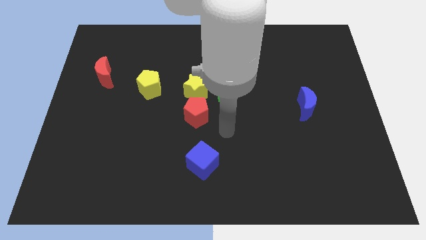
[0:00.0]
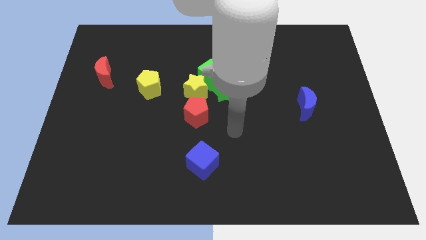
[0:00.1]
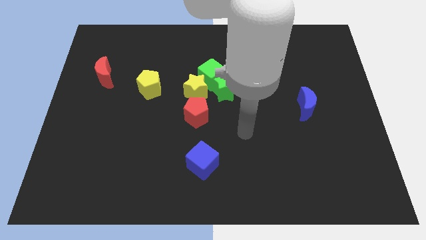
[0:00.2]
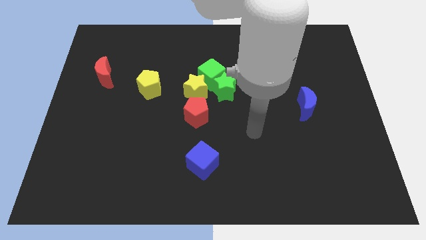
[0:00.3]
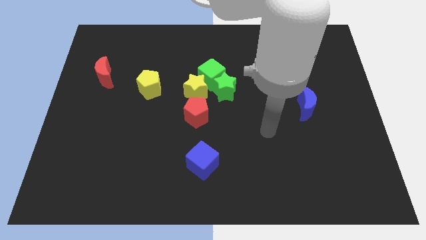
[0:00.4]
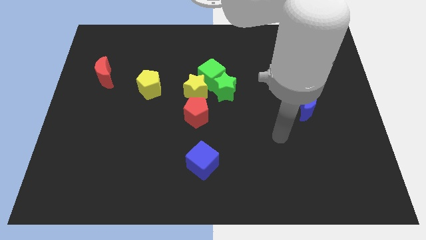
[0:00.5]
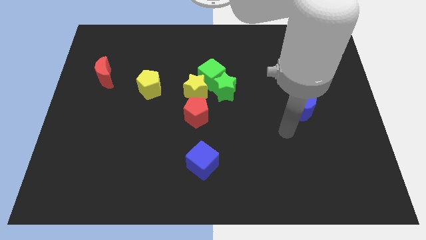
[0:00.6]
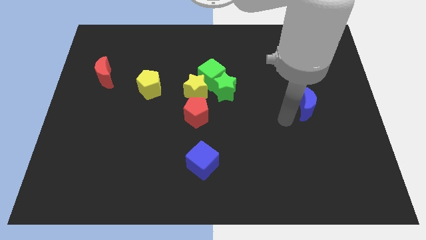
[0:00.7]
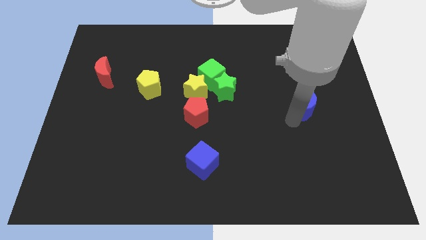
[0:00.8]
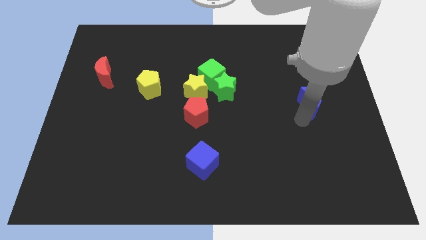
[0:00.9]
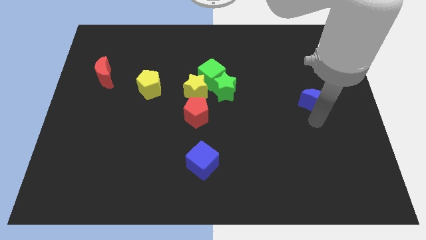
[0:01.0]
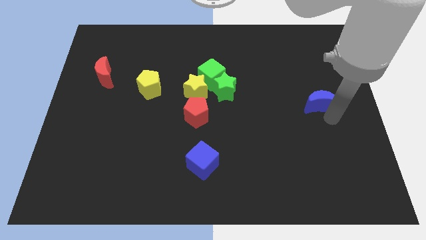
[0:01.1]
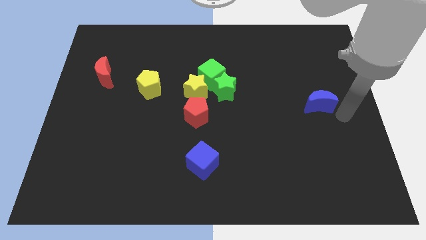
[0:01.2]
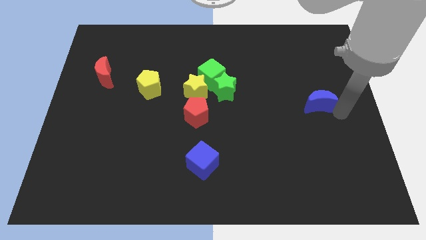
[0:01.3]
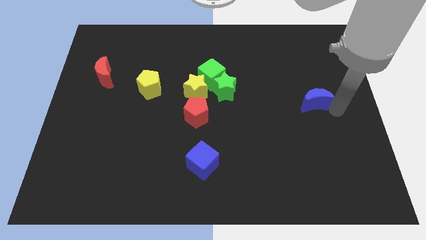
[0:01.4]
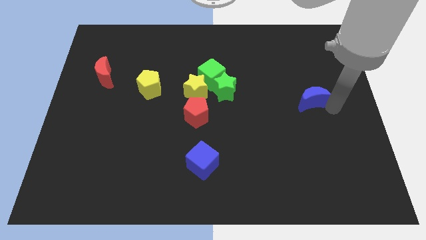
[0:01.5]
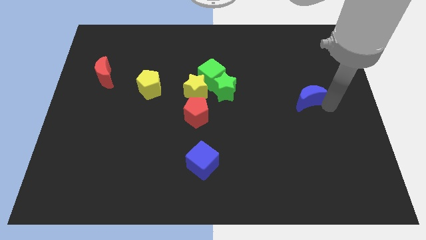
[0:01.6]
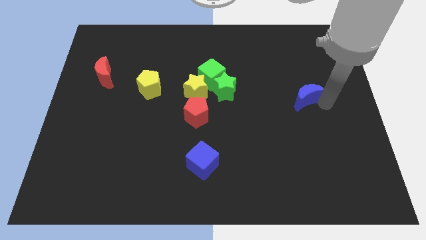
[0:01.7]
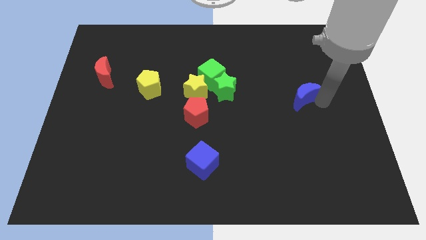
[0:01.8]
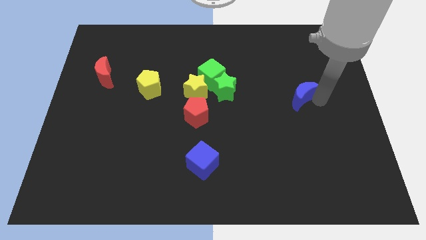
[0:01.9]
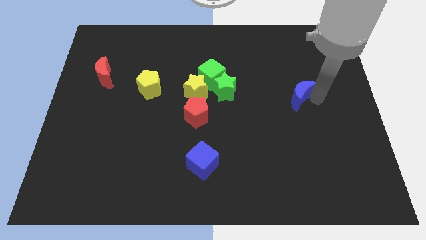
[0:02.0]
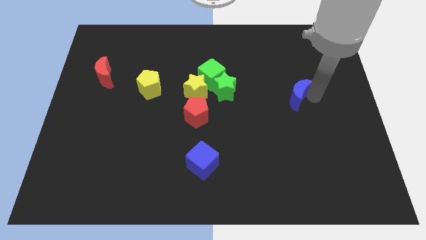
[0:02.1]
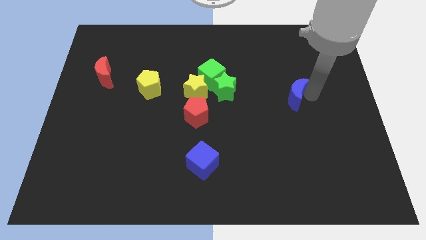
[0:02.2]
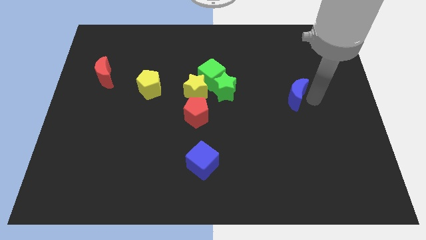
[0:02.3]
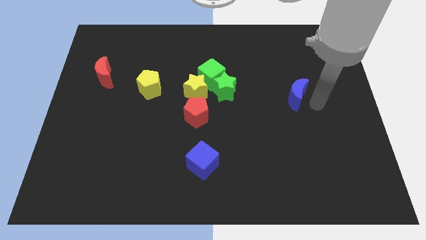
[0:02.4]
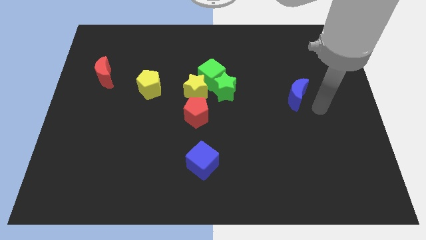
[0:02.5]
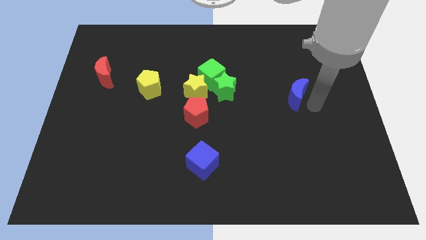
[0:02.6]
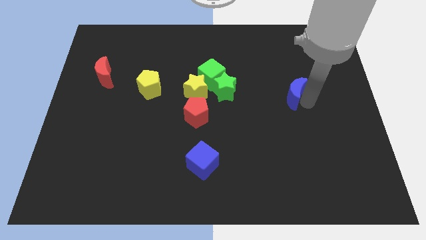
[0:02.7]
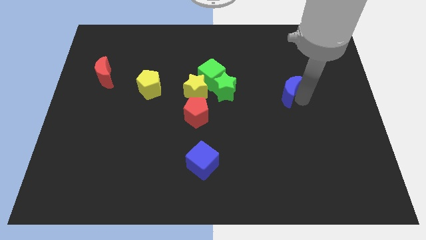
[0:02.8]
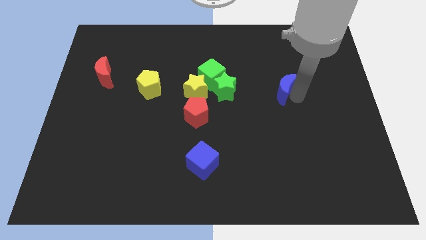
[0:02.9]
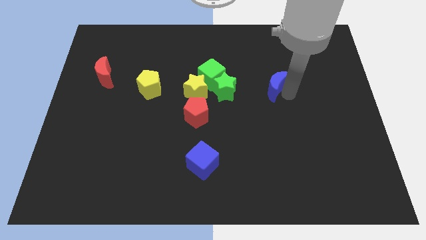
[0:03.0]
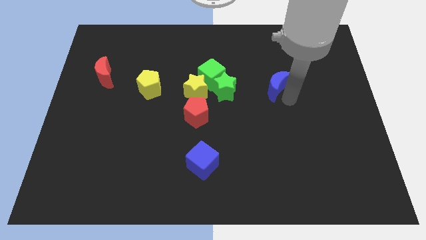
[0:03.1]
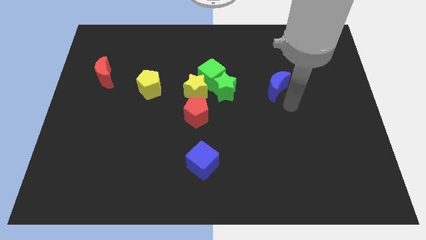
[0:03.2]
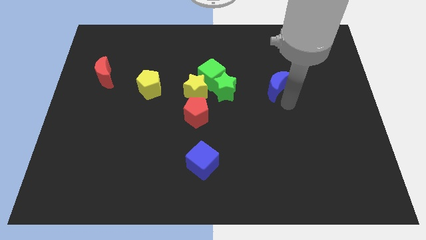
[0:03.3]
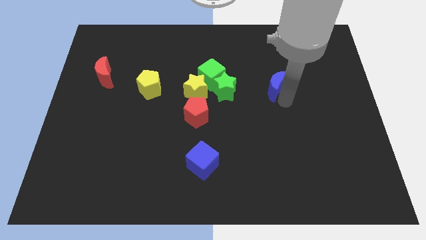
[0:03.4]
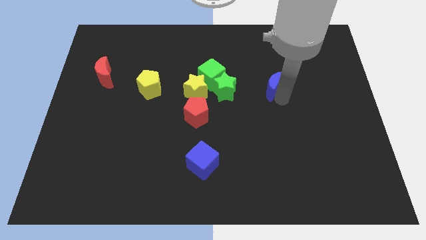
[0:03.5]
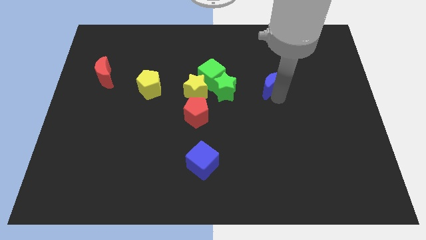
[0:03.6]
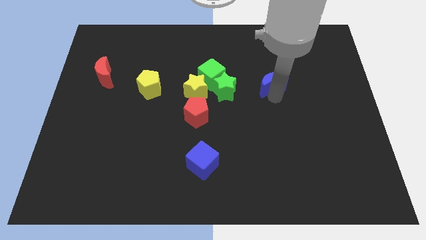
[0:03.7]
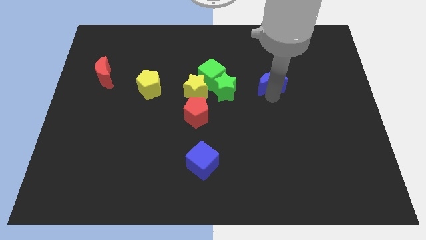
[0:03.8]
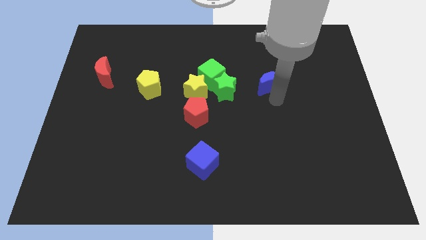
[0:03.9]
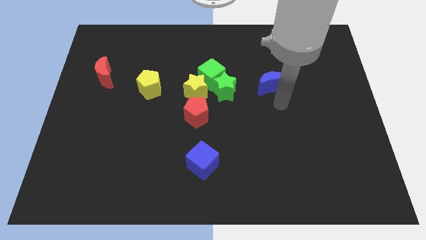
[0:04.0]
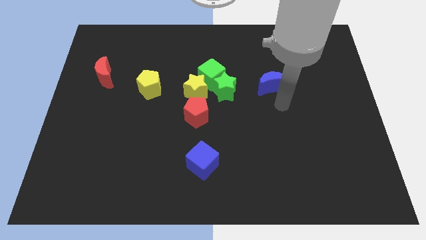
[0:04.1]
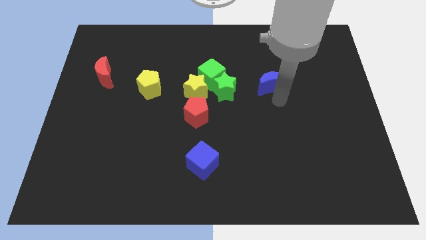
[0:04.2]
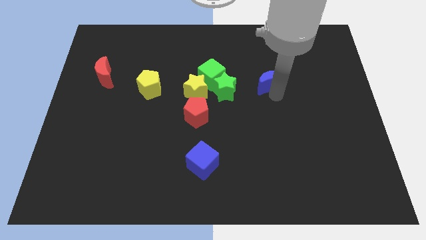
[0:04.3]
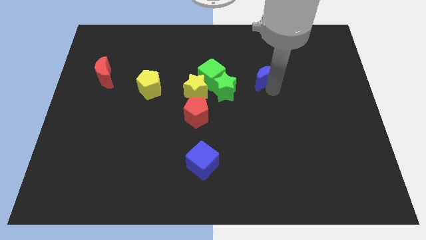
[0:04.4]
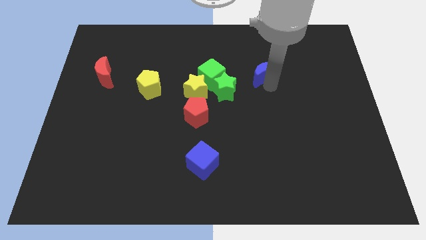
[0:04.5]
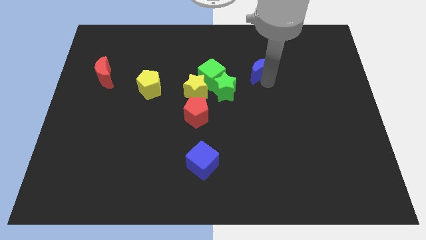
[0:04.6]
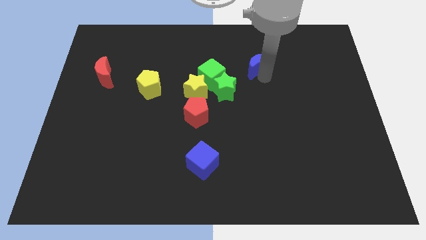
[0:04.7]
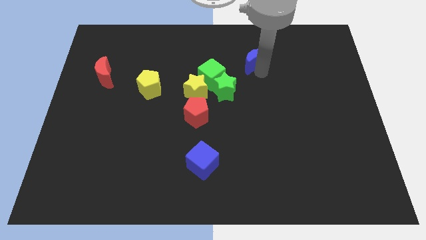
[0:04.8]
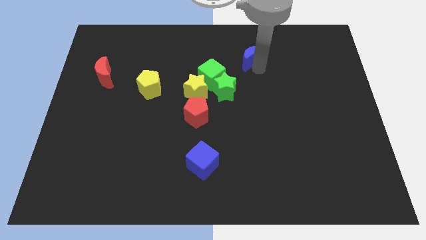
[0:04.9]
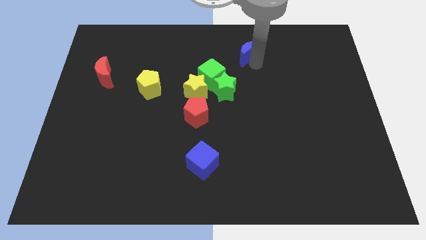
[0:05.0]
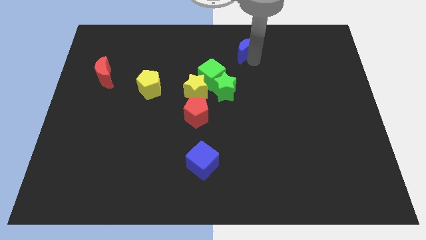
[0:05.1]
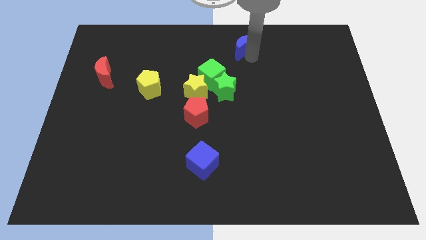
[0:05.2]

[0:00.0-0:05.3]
slide the blue moon to the towards your base
